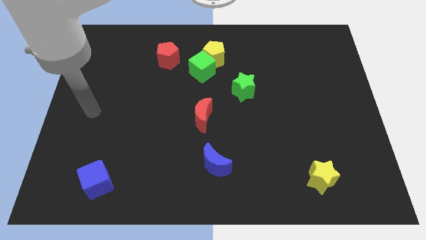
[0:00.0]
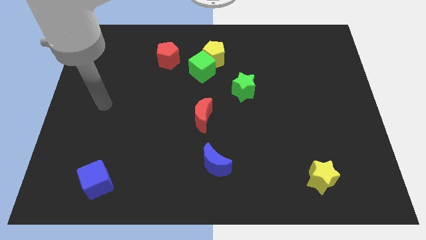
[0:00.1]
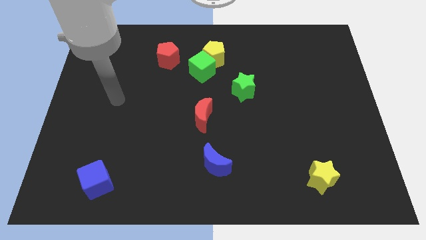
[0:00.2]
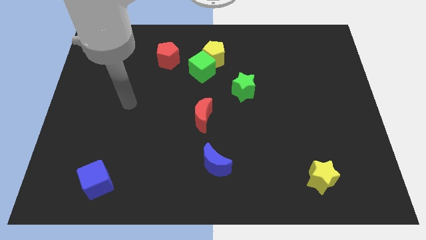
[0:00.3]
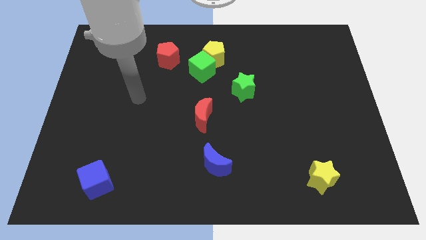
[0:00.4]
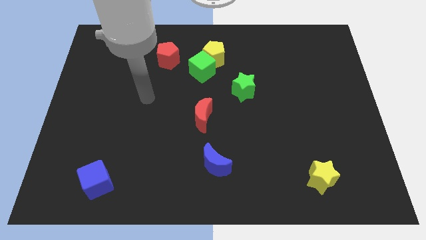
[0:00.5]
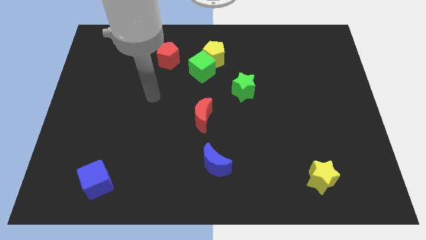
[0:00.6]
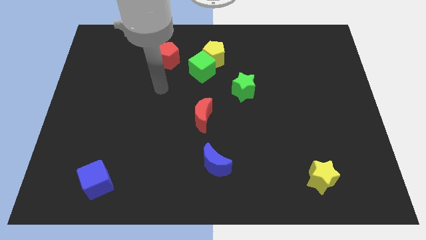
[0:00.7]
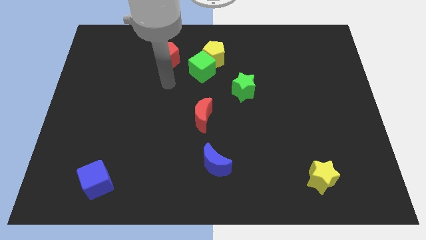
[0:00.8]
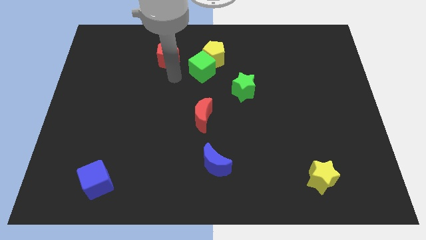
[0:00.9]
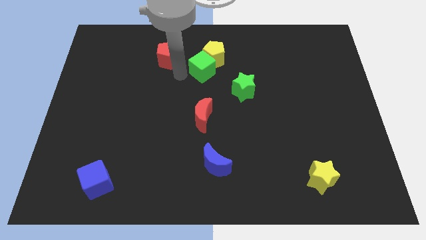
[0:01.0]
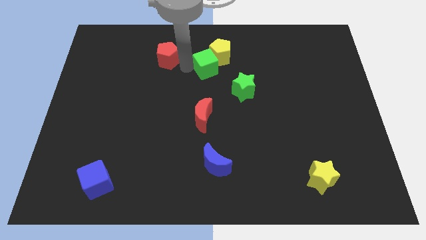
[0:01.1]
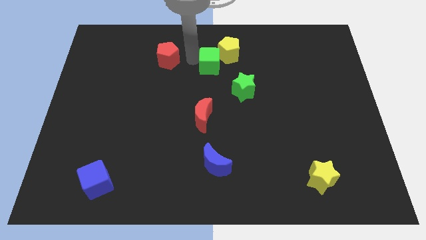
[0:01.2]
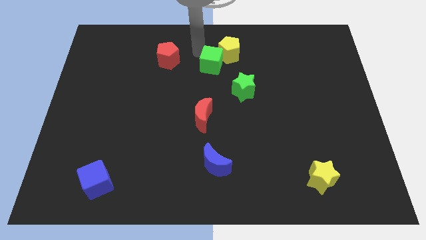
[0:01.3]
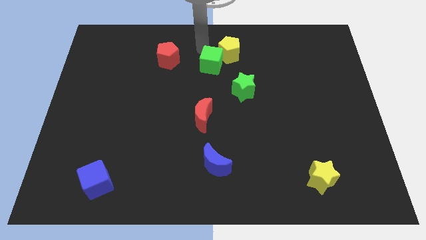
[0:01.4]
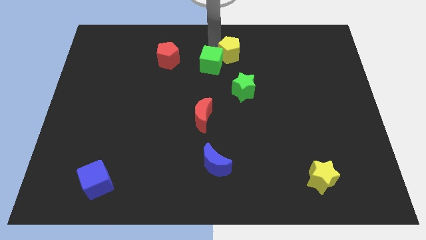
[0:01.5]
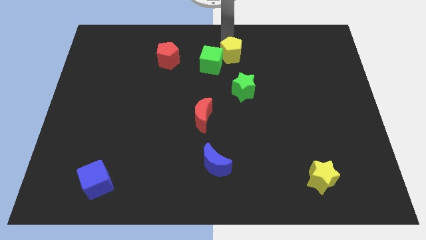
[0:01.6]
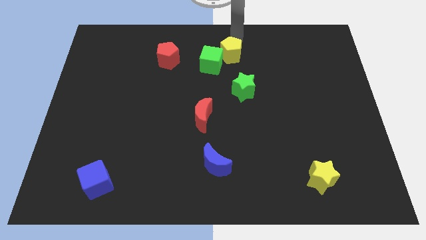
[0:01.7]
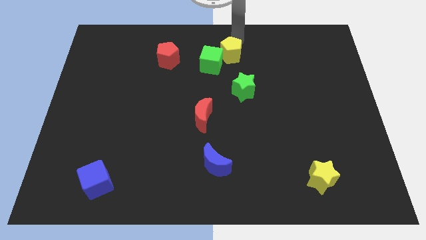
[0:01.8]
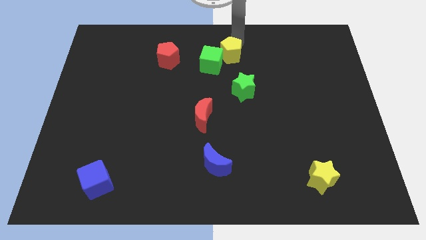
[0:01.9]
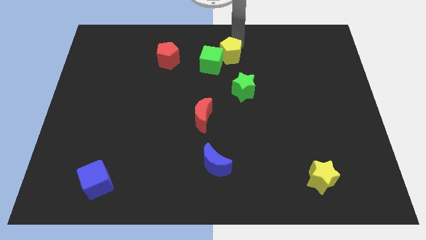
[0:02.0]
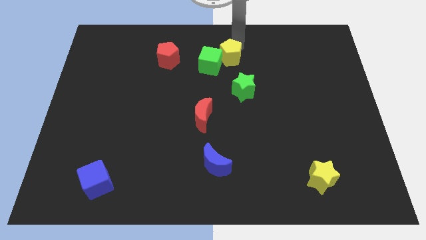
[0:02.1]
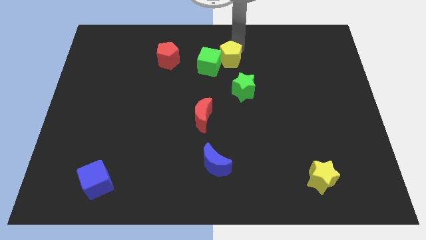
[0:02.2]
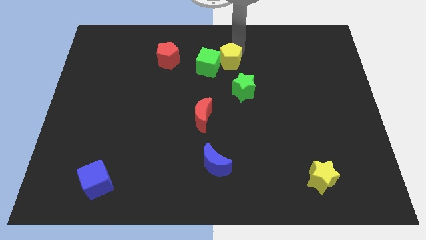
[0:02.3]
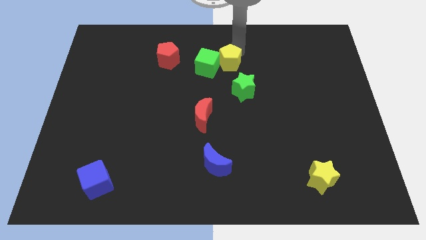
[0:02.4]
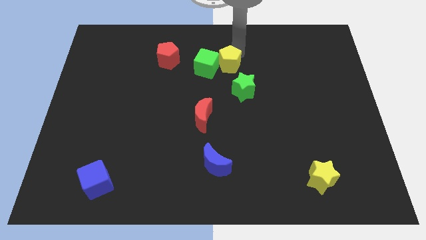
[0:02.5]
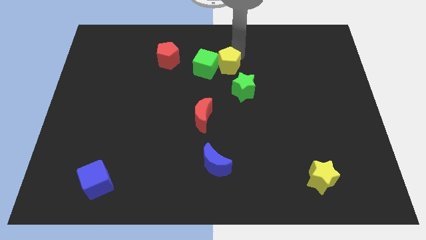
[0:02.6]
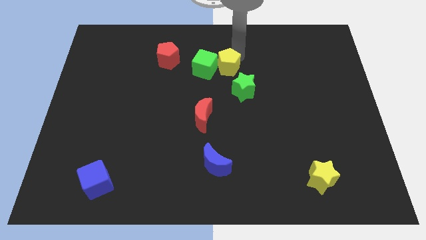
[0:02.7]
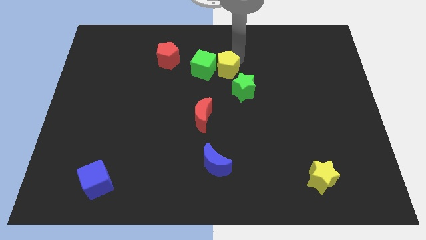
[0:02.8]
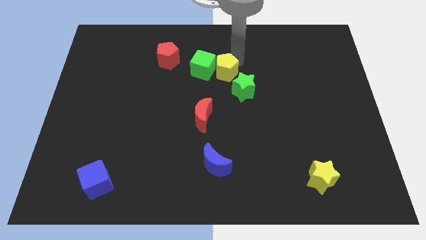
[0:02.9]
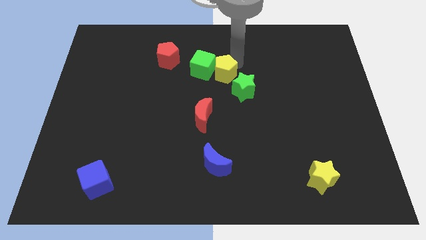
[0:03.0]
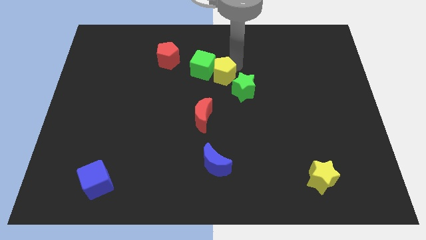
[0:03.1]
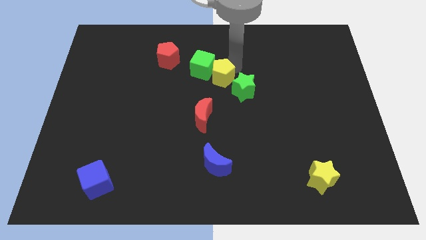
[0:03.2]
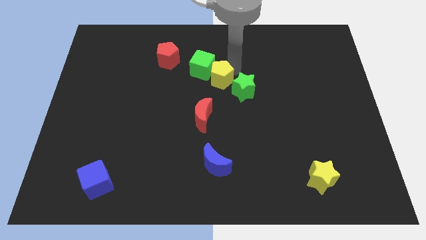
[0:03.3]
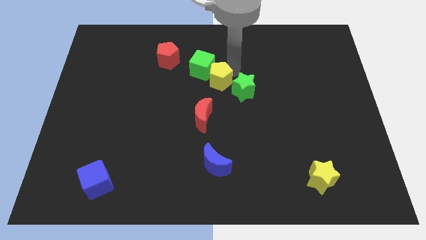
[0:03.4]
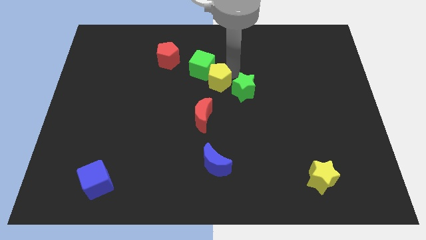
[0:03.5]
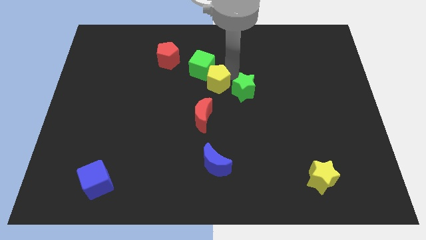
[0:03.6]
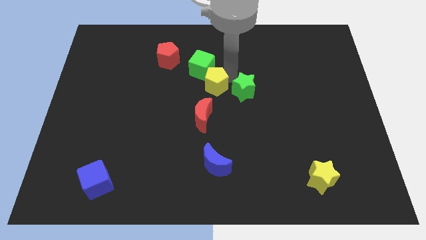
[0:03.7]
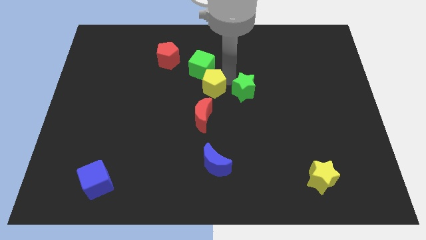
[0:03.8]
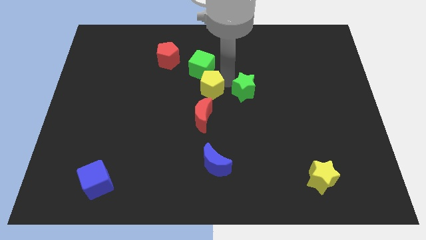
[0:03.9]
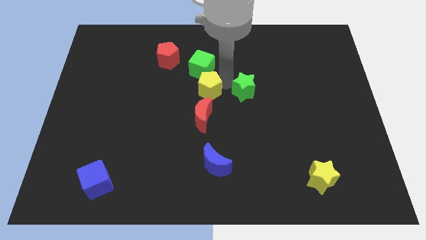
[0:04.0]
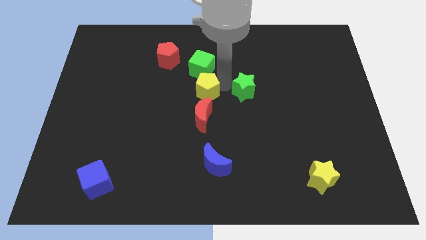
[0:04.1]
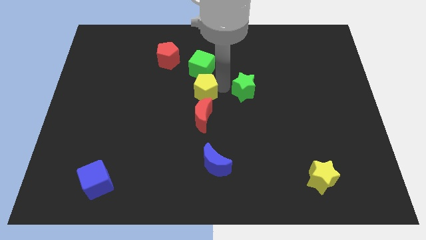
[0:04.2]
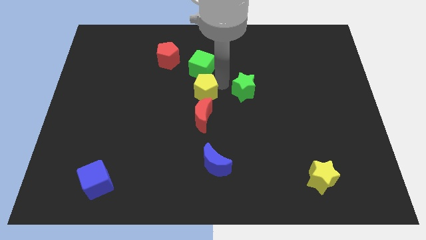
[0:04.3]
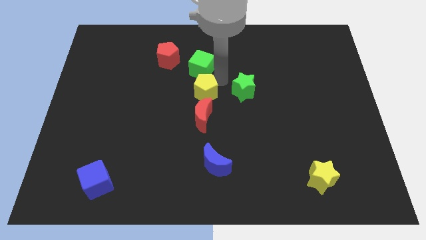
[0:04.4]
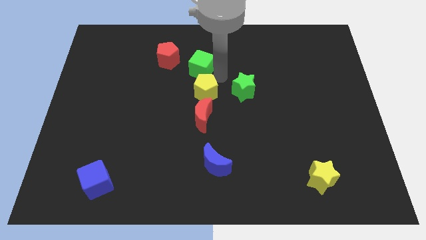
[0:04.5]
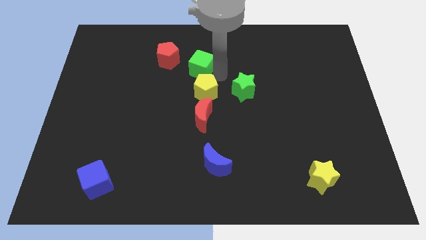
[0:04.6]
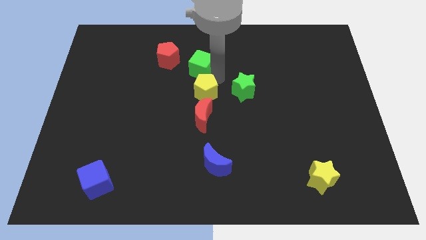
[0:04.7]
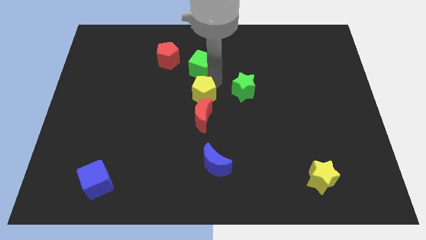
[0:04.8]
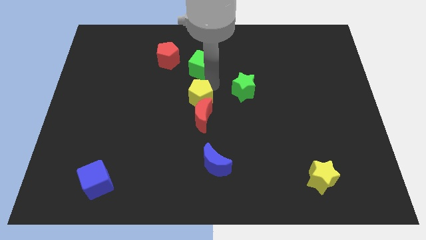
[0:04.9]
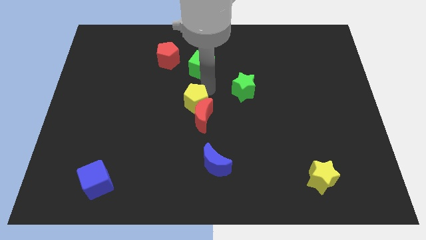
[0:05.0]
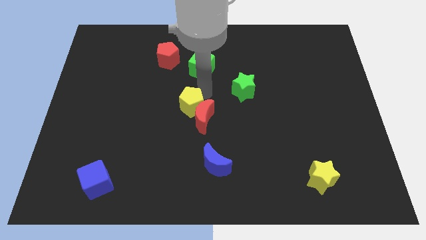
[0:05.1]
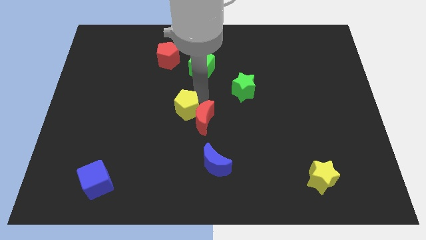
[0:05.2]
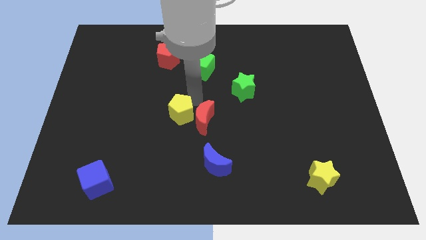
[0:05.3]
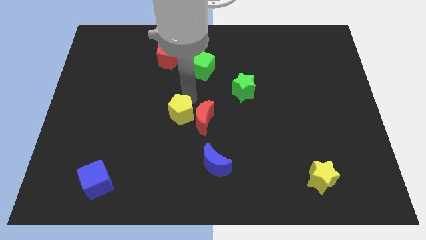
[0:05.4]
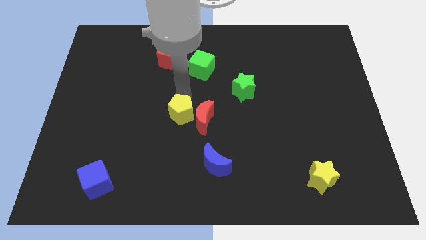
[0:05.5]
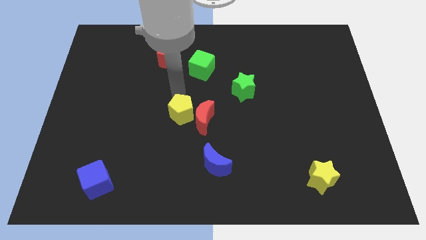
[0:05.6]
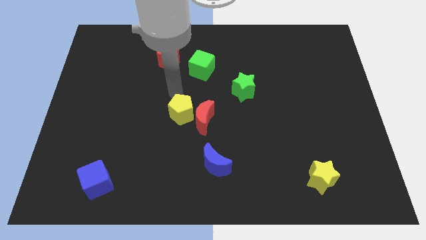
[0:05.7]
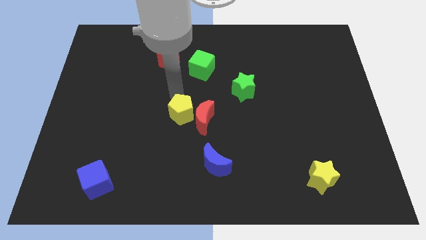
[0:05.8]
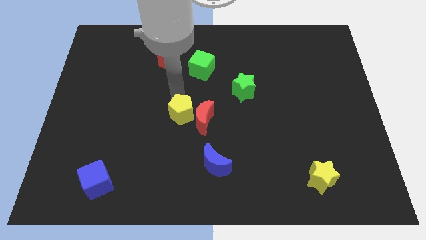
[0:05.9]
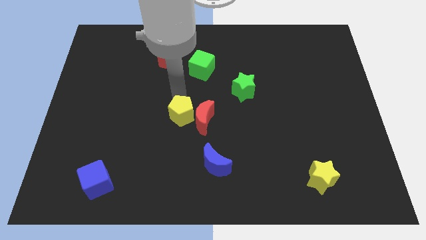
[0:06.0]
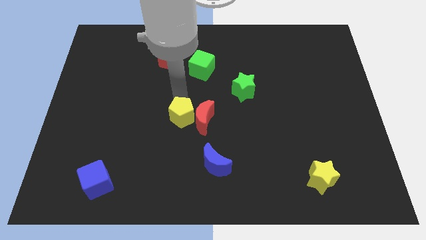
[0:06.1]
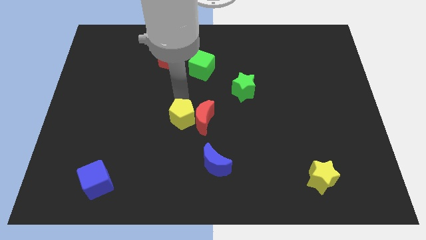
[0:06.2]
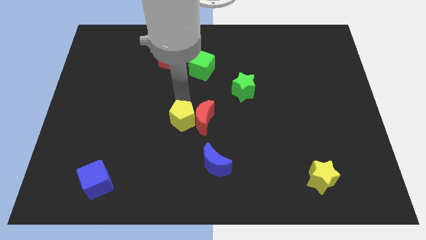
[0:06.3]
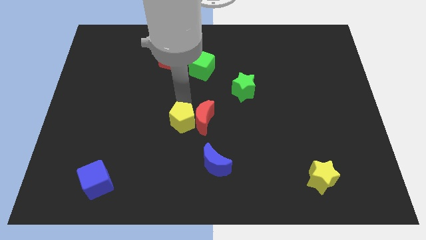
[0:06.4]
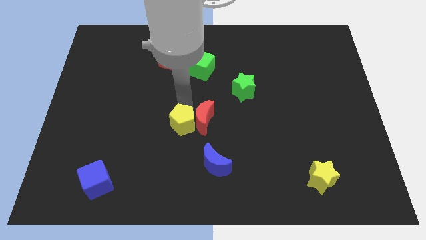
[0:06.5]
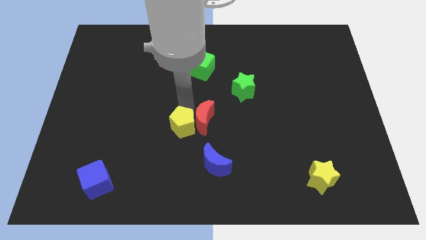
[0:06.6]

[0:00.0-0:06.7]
slide the yellow pentagon to the top left side of the blue moon

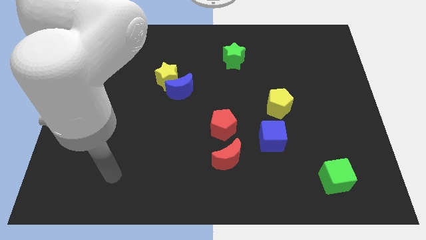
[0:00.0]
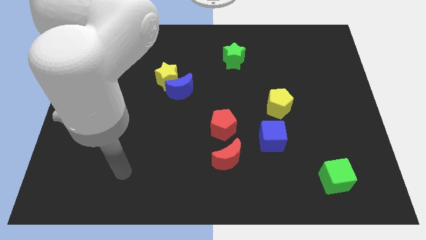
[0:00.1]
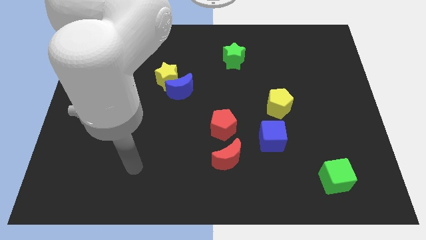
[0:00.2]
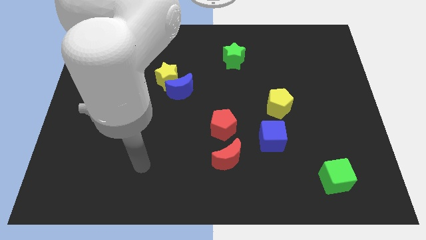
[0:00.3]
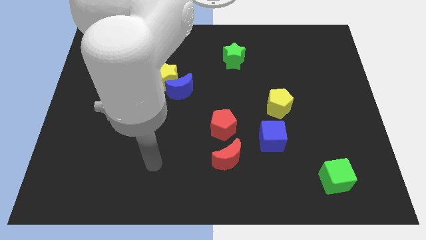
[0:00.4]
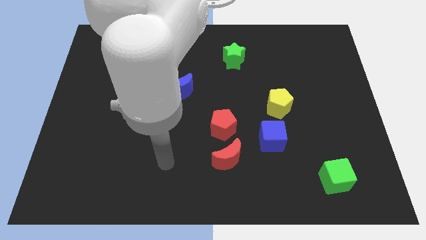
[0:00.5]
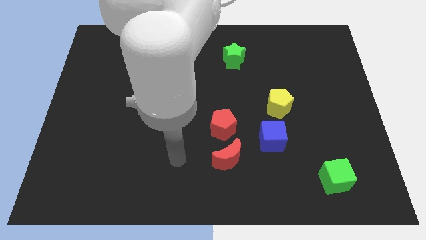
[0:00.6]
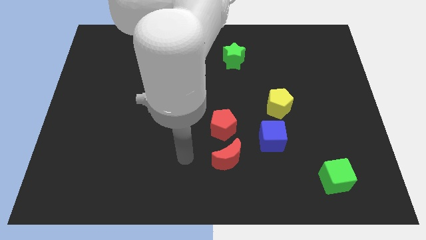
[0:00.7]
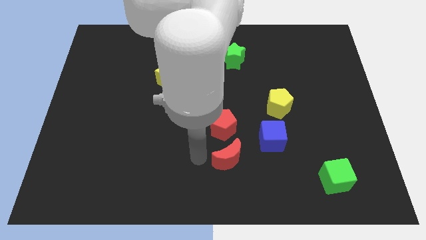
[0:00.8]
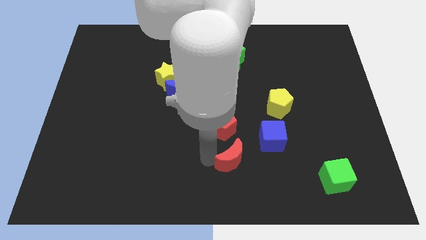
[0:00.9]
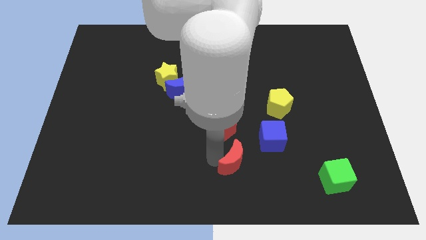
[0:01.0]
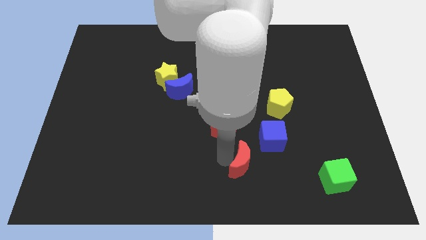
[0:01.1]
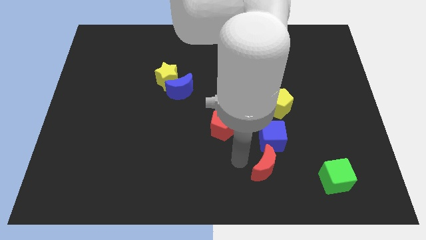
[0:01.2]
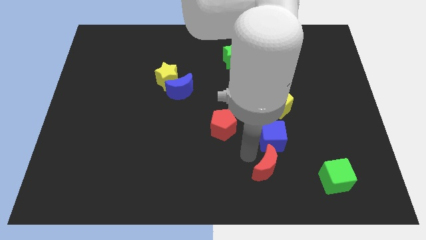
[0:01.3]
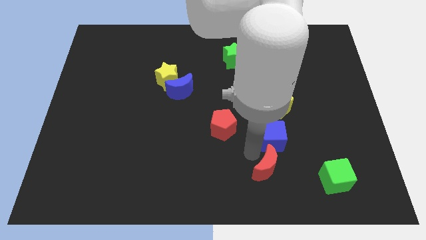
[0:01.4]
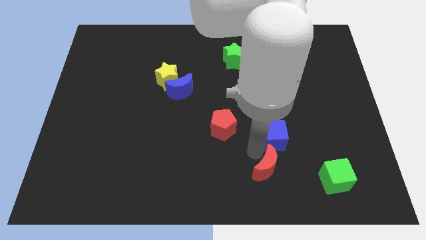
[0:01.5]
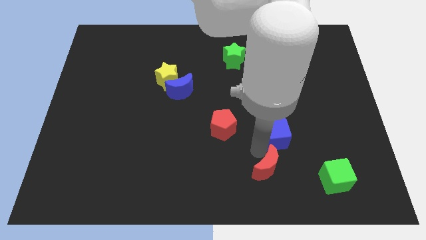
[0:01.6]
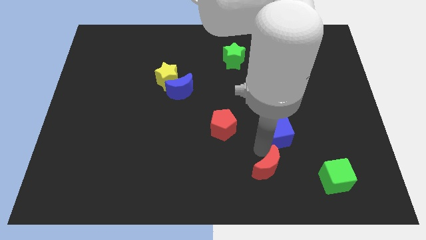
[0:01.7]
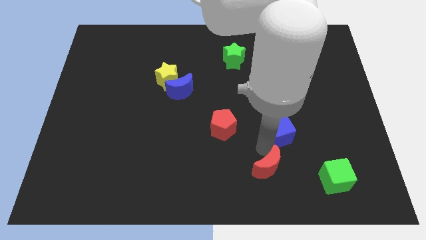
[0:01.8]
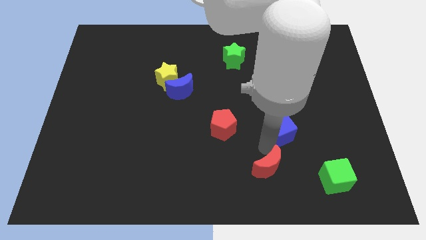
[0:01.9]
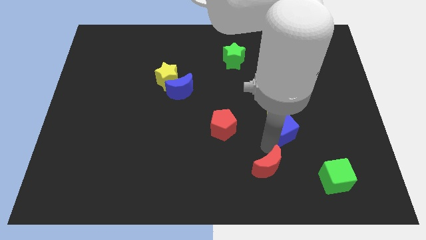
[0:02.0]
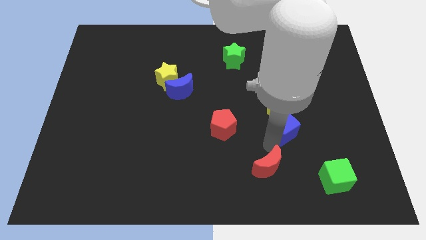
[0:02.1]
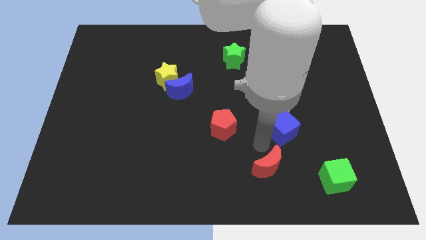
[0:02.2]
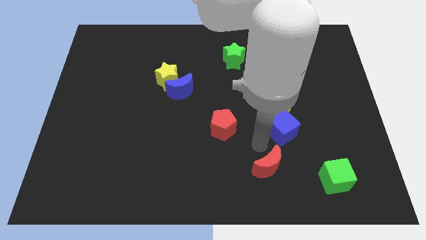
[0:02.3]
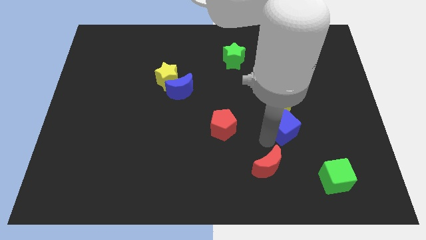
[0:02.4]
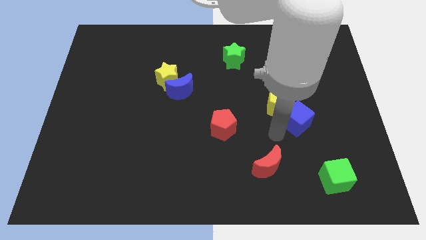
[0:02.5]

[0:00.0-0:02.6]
slide the blue cube to the right of the yellow pentagon
